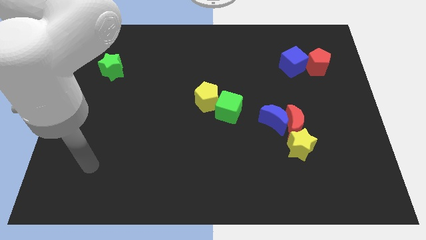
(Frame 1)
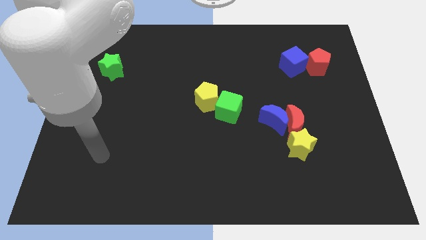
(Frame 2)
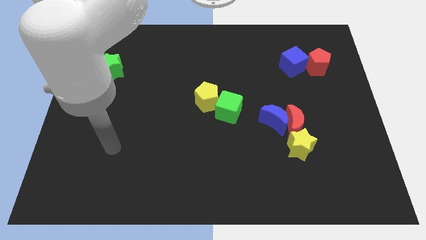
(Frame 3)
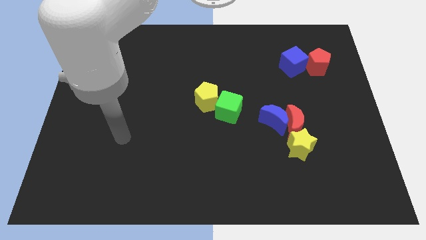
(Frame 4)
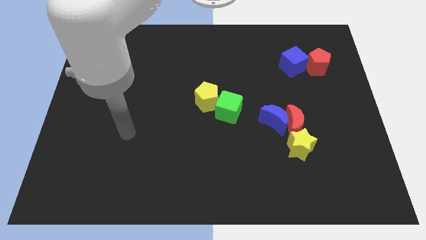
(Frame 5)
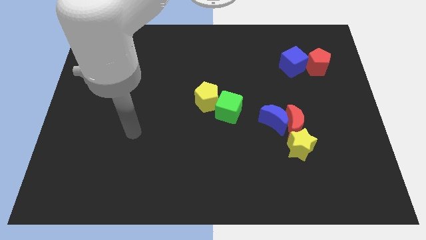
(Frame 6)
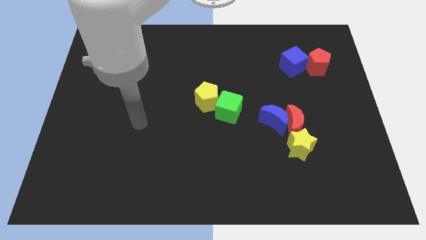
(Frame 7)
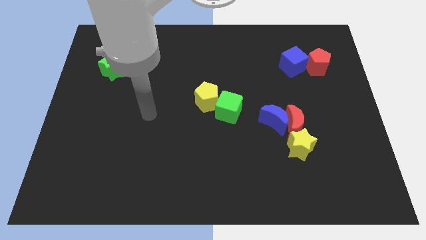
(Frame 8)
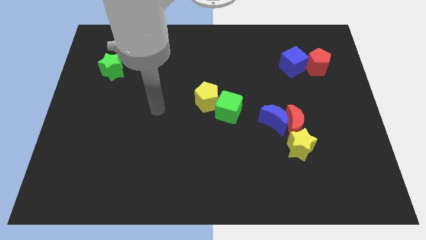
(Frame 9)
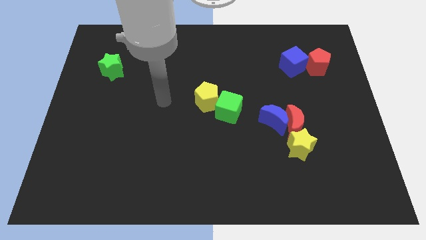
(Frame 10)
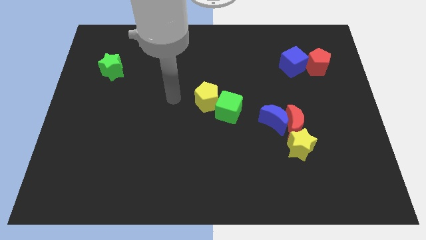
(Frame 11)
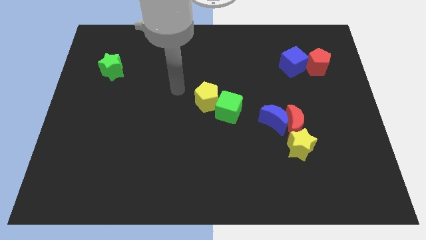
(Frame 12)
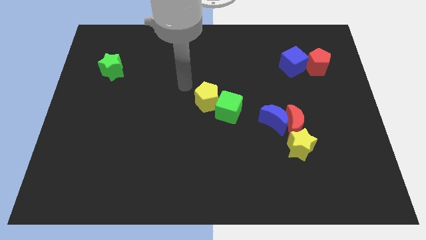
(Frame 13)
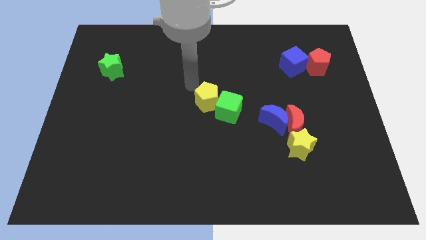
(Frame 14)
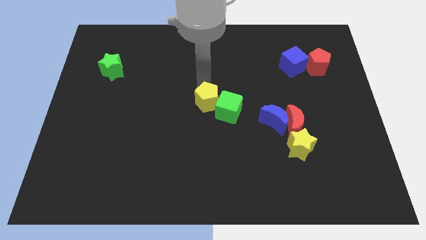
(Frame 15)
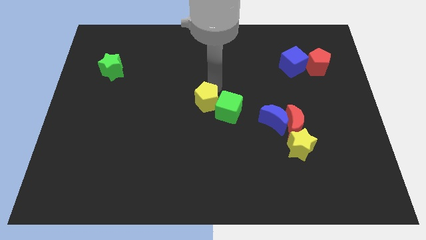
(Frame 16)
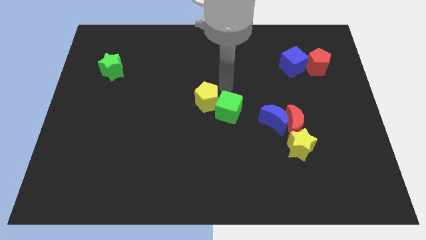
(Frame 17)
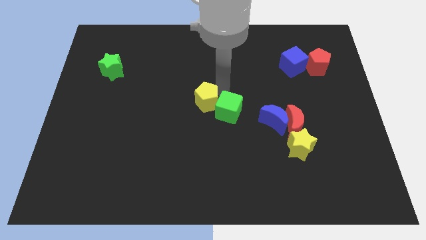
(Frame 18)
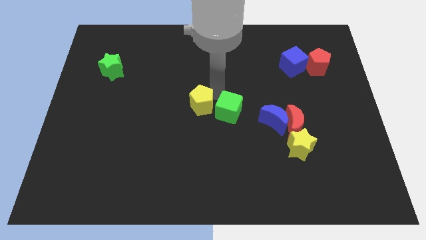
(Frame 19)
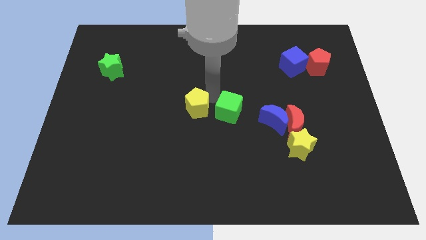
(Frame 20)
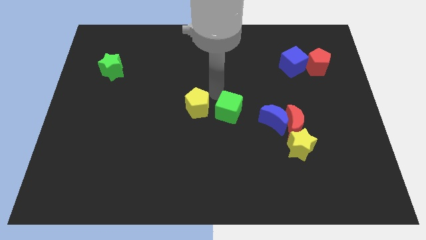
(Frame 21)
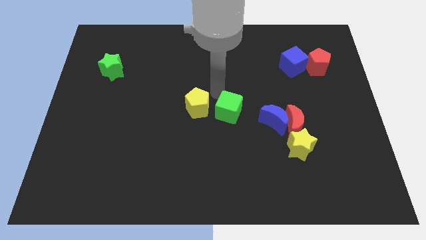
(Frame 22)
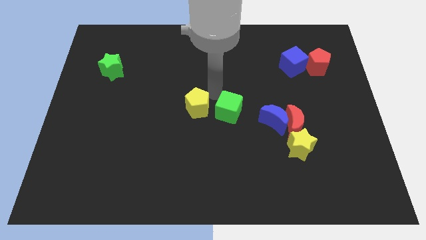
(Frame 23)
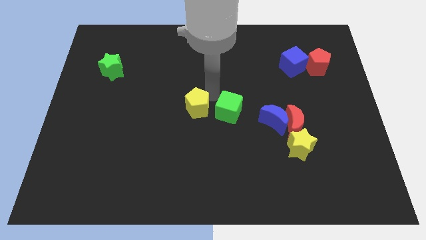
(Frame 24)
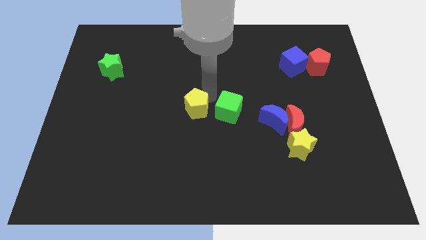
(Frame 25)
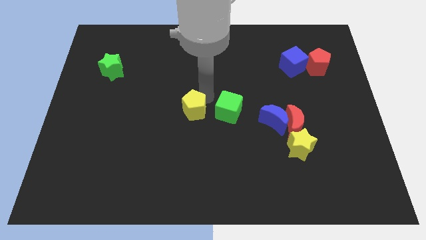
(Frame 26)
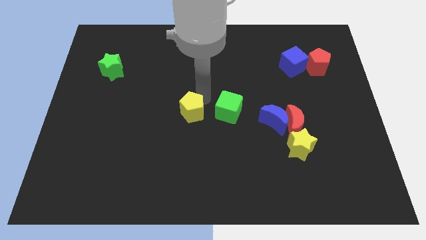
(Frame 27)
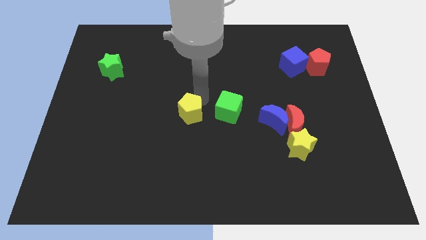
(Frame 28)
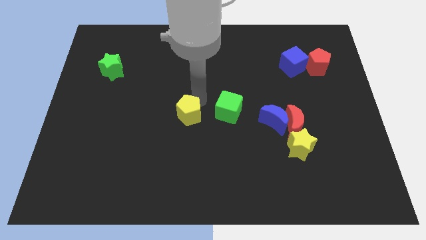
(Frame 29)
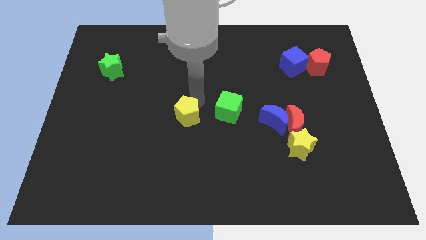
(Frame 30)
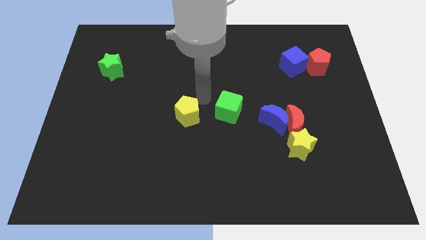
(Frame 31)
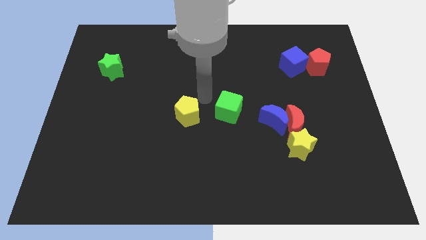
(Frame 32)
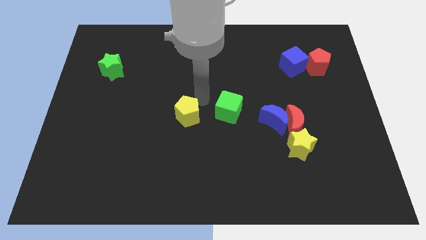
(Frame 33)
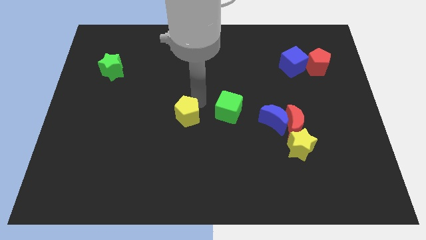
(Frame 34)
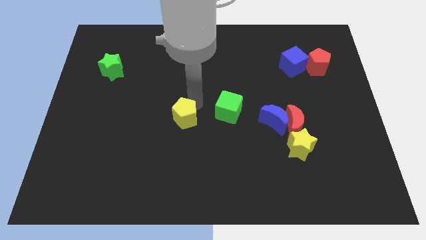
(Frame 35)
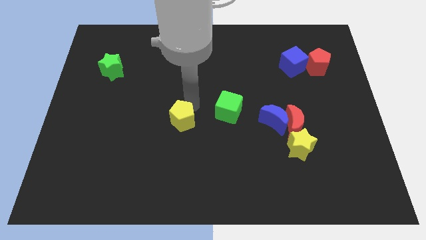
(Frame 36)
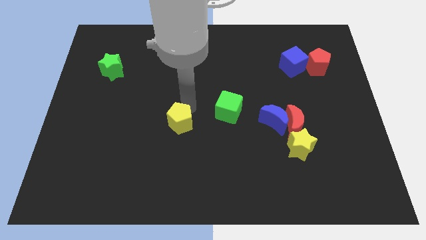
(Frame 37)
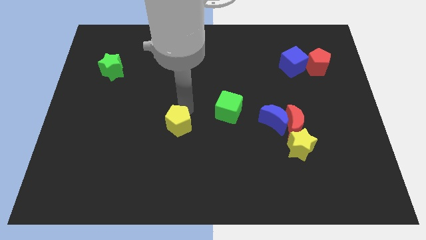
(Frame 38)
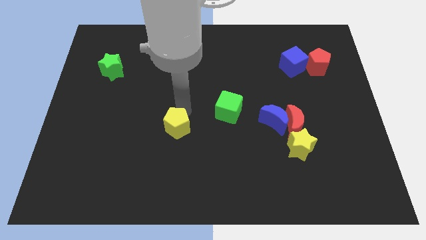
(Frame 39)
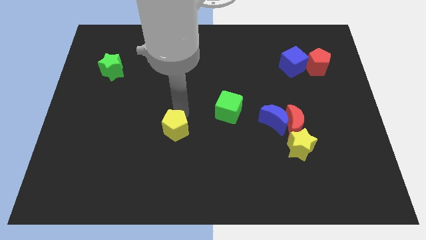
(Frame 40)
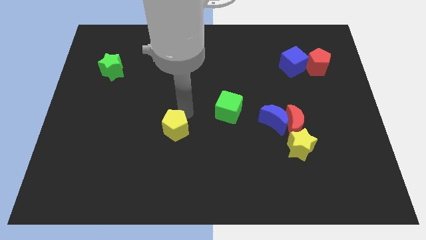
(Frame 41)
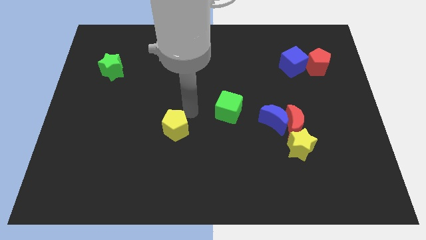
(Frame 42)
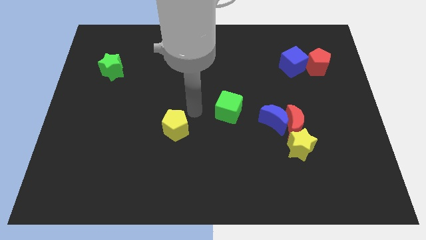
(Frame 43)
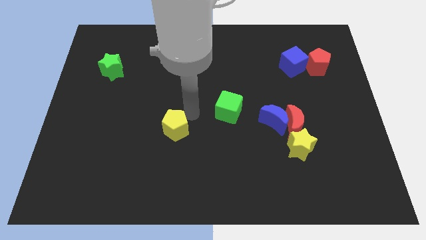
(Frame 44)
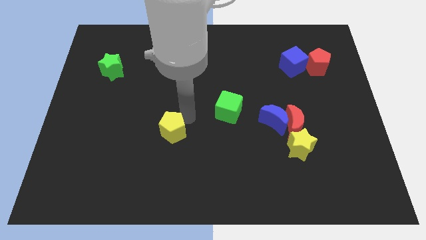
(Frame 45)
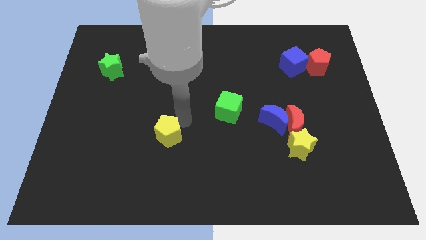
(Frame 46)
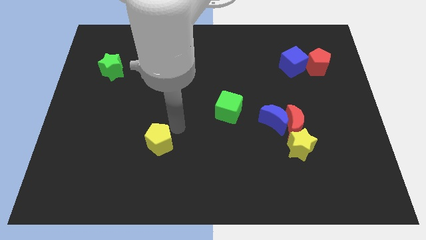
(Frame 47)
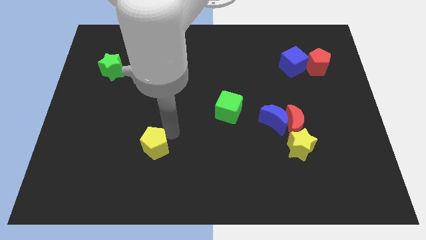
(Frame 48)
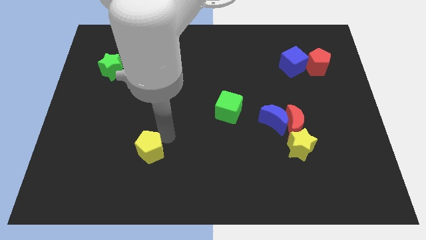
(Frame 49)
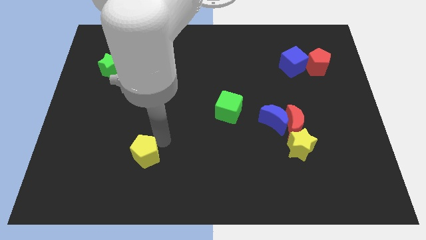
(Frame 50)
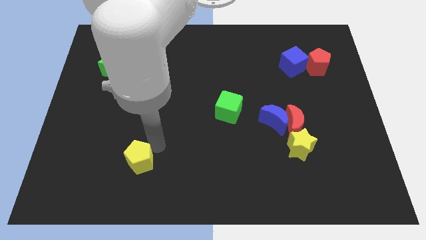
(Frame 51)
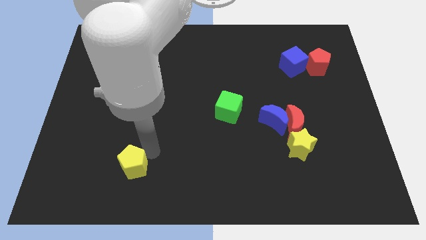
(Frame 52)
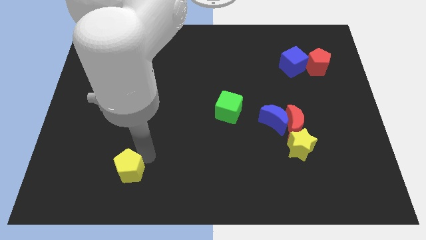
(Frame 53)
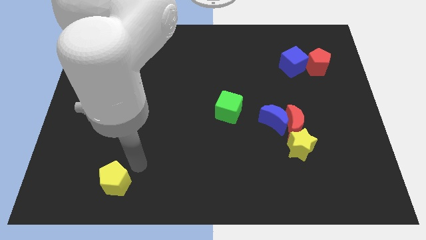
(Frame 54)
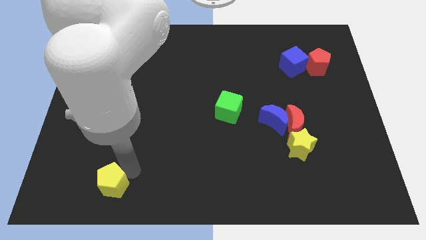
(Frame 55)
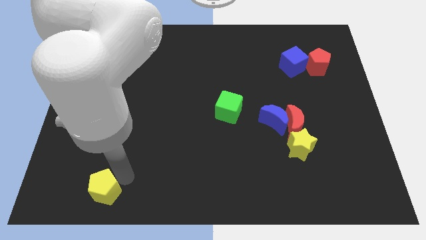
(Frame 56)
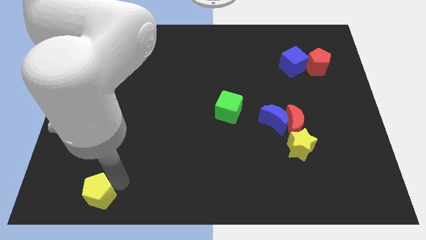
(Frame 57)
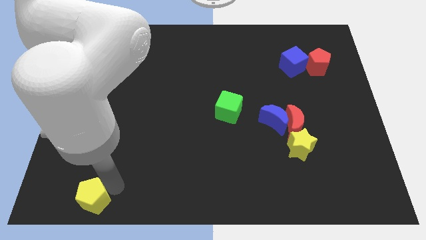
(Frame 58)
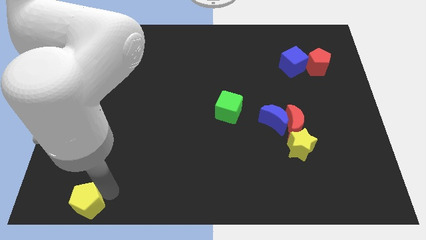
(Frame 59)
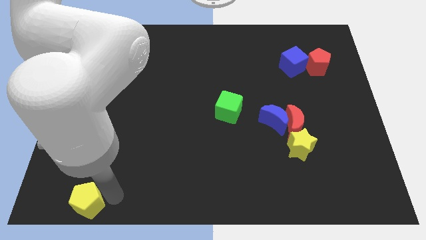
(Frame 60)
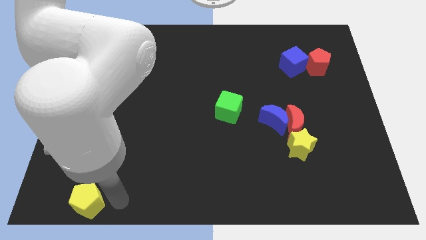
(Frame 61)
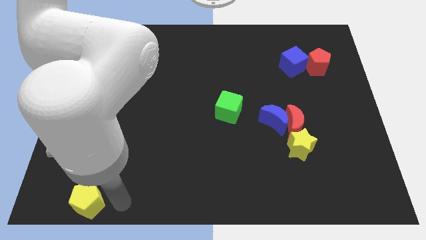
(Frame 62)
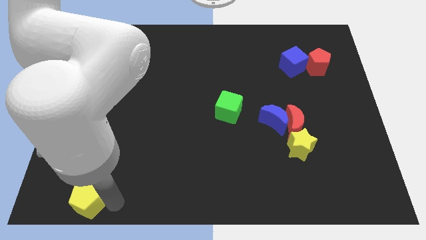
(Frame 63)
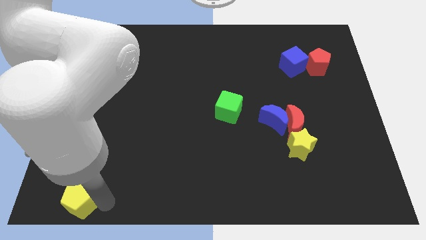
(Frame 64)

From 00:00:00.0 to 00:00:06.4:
slide the yellow pentagon to the bottom left corner

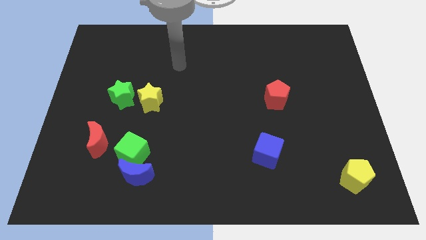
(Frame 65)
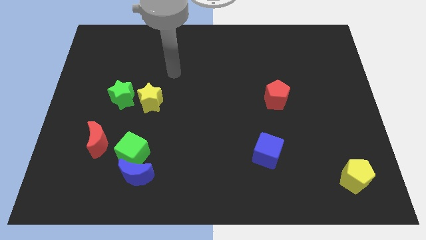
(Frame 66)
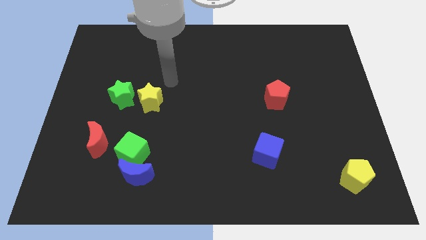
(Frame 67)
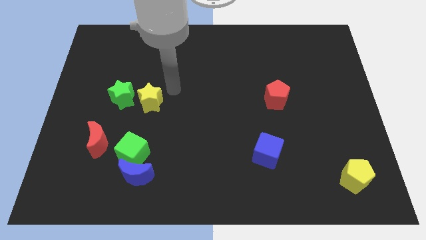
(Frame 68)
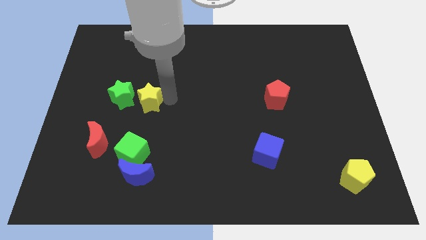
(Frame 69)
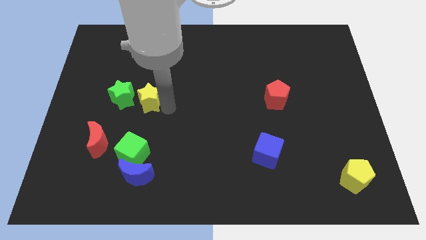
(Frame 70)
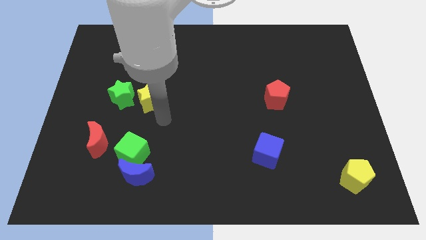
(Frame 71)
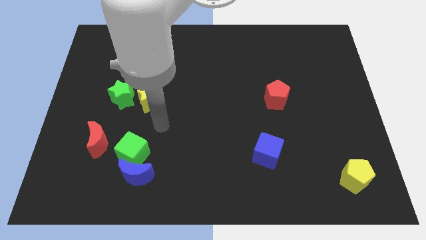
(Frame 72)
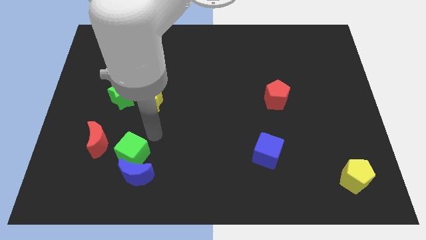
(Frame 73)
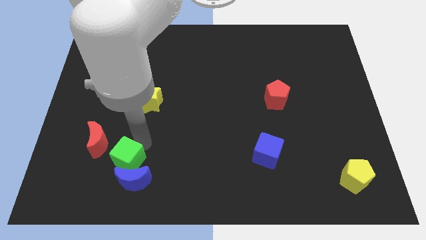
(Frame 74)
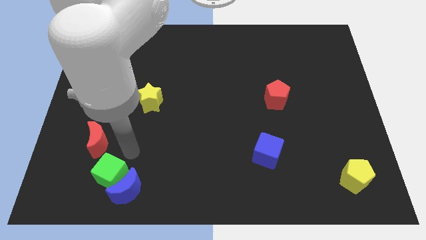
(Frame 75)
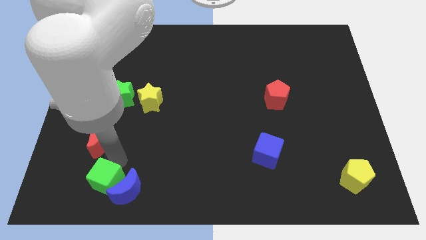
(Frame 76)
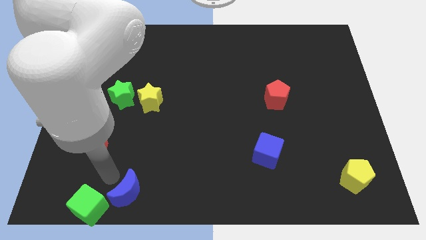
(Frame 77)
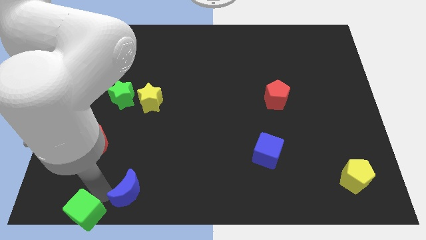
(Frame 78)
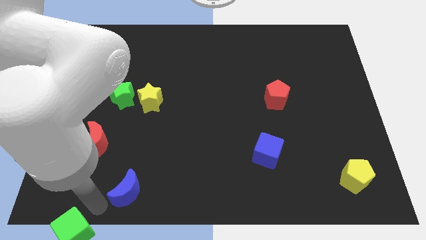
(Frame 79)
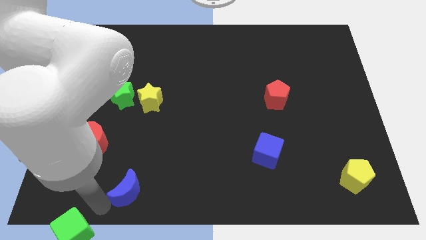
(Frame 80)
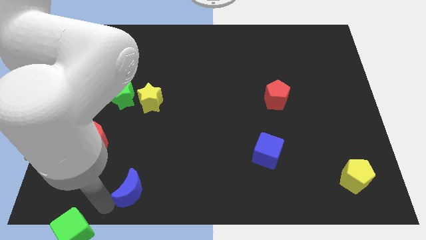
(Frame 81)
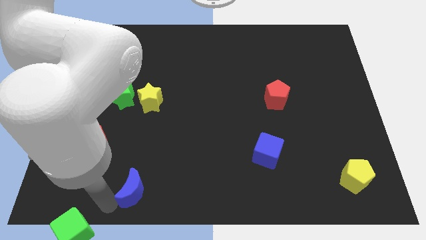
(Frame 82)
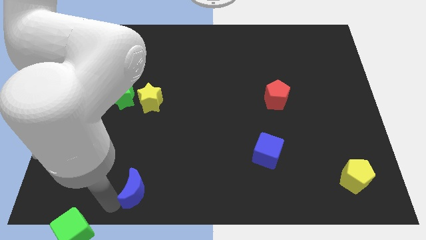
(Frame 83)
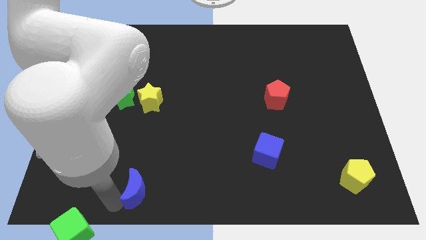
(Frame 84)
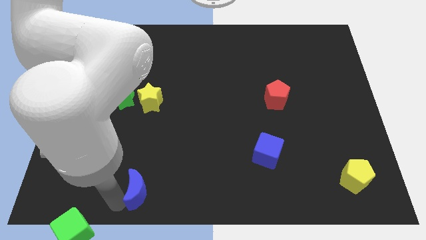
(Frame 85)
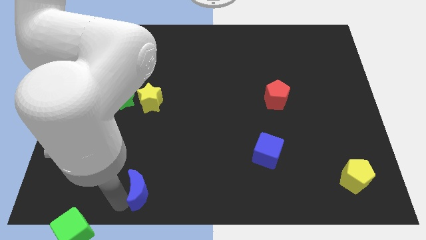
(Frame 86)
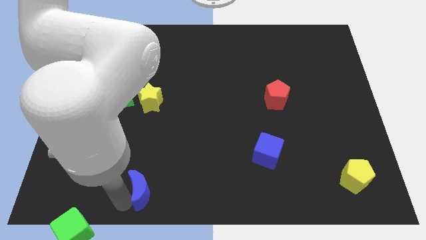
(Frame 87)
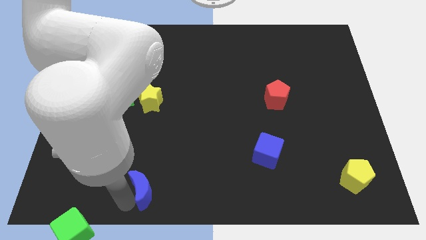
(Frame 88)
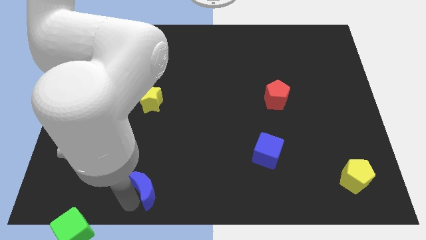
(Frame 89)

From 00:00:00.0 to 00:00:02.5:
put the blue moon to the bottom
